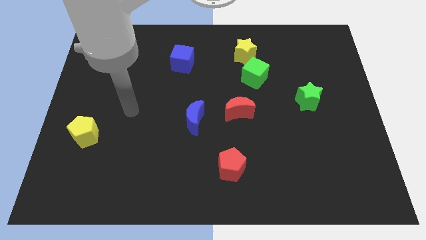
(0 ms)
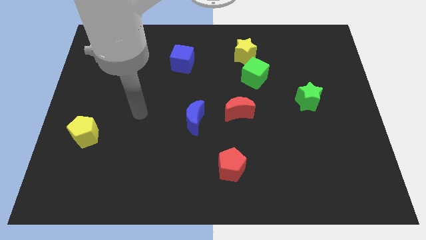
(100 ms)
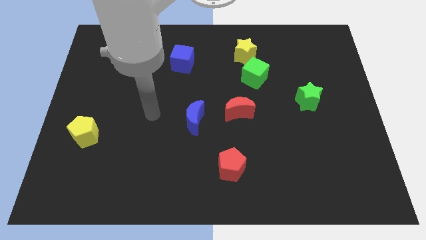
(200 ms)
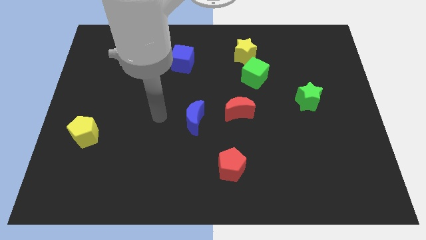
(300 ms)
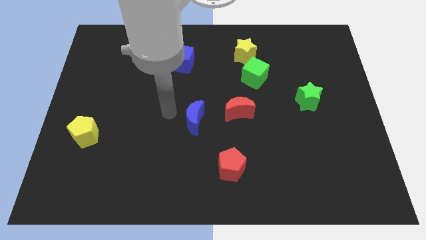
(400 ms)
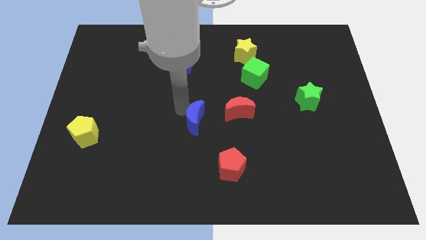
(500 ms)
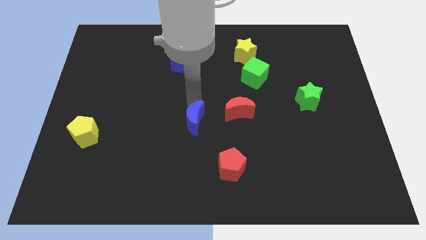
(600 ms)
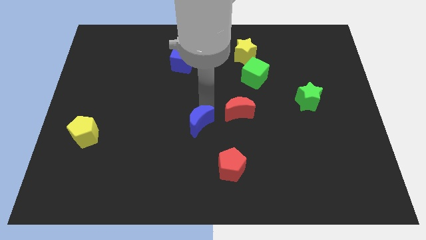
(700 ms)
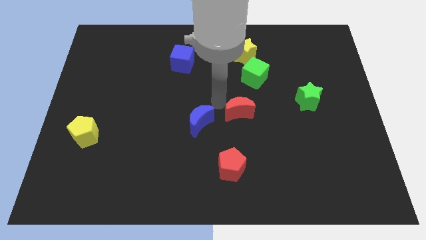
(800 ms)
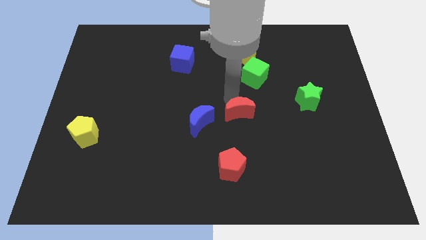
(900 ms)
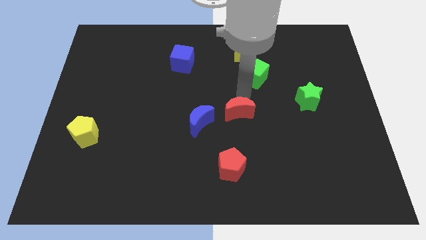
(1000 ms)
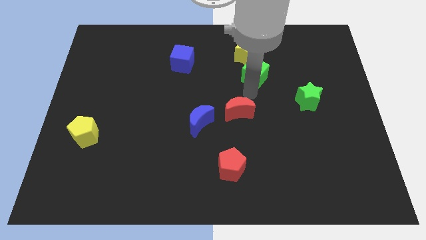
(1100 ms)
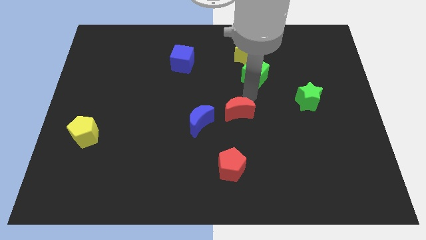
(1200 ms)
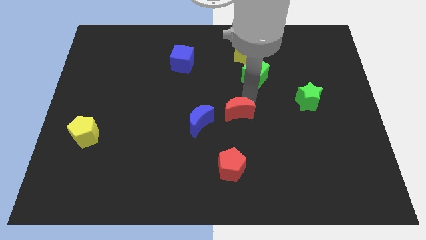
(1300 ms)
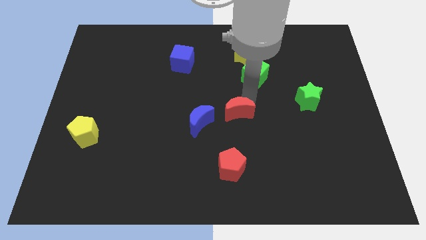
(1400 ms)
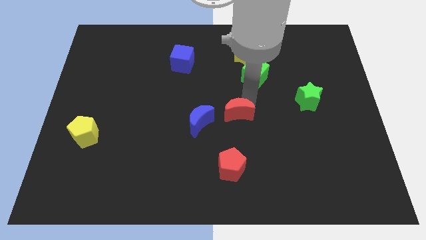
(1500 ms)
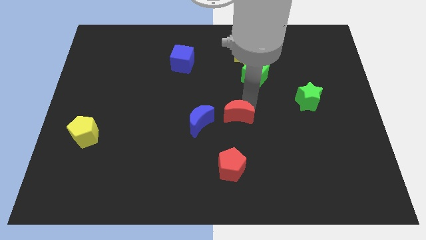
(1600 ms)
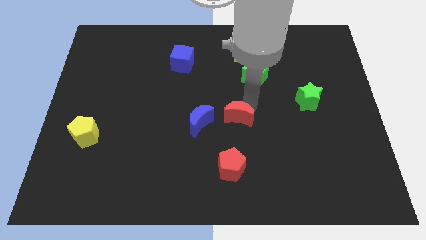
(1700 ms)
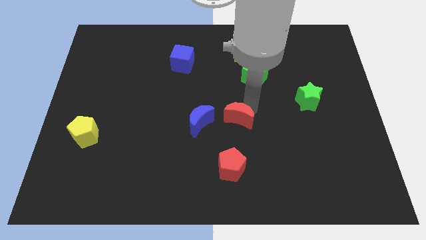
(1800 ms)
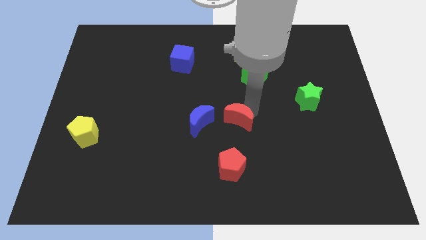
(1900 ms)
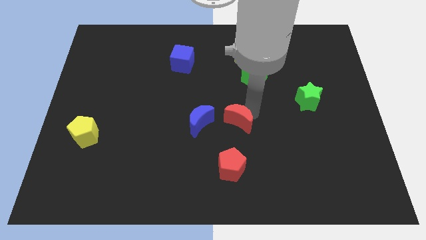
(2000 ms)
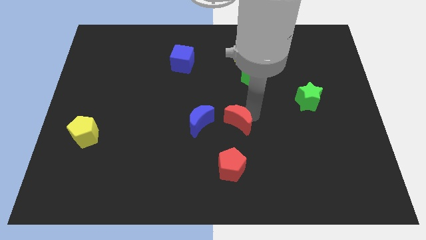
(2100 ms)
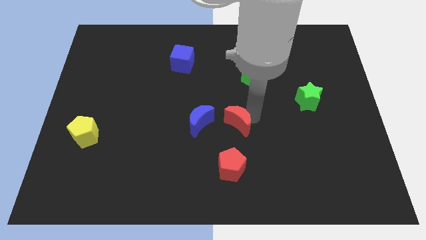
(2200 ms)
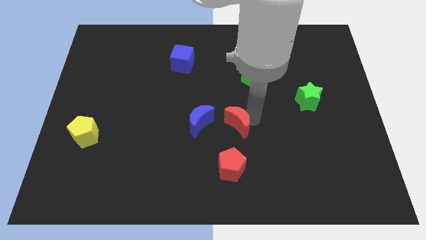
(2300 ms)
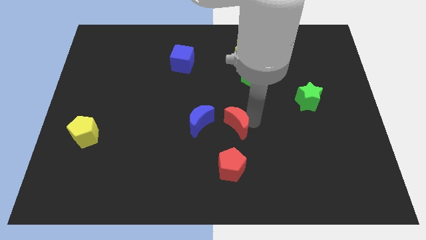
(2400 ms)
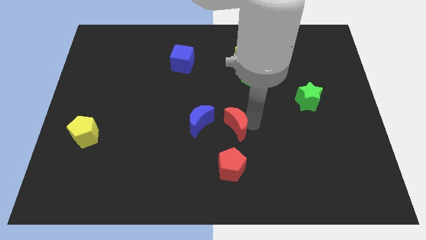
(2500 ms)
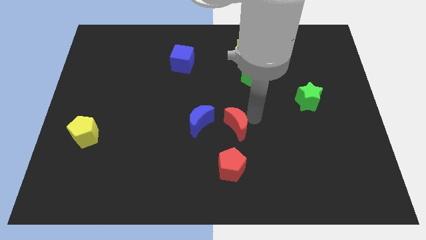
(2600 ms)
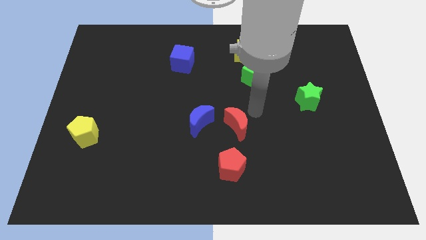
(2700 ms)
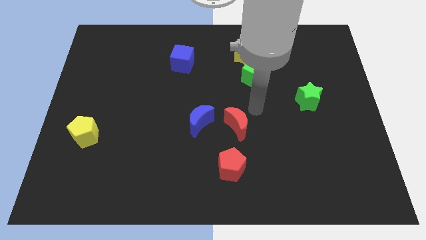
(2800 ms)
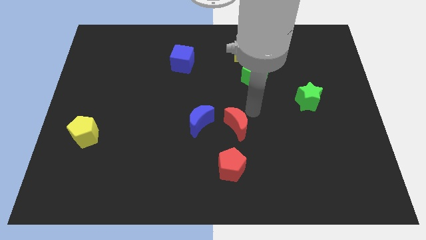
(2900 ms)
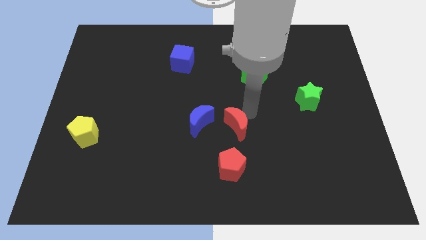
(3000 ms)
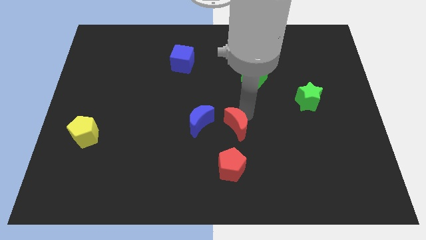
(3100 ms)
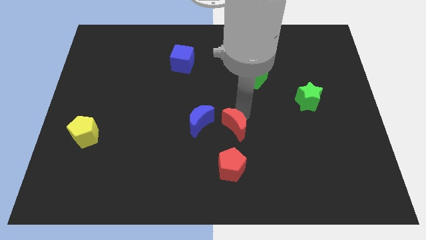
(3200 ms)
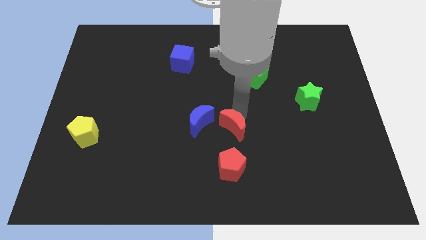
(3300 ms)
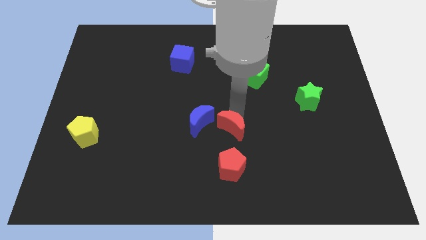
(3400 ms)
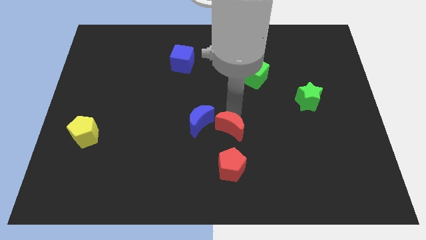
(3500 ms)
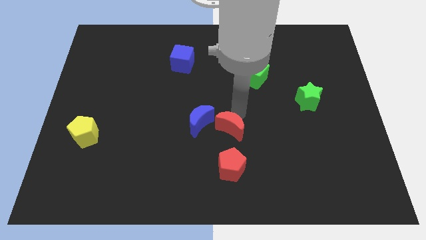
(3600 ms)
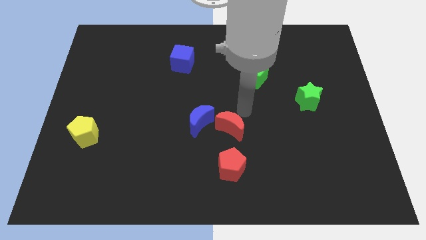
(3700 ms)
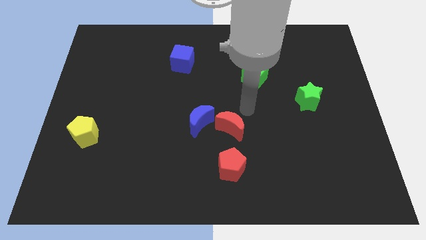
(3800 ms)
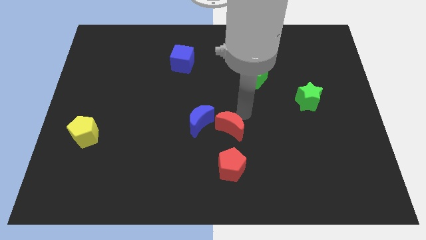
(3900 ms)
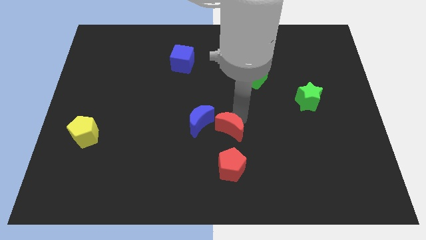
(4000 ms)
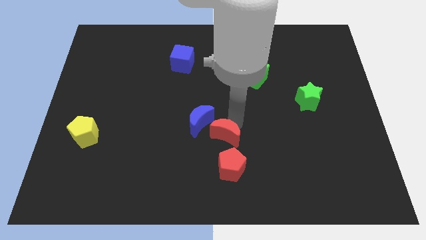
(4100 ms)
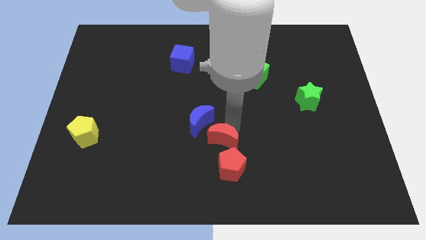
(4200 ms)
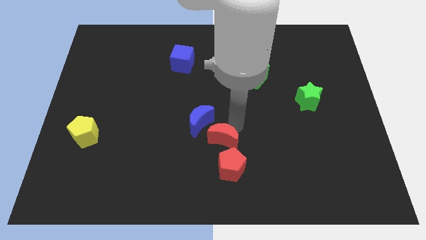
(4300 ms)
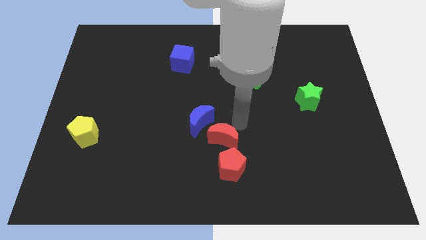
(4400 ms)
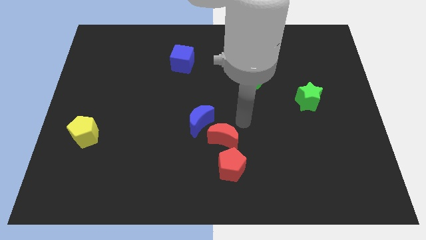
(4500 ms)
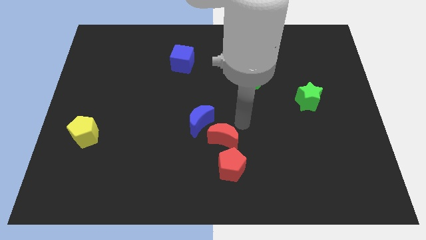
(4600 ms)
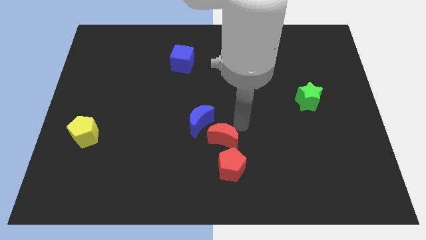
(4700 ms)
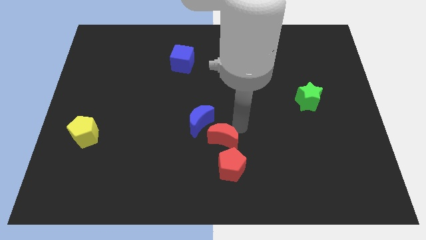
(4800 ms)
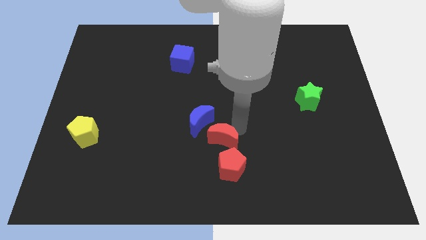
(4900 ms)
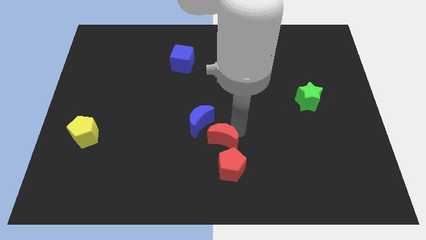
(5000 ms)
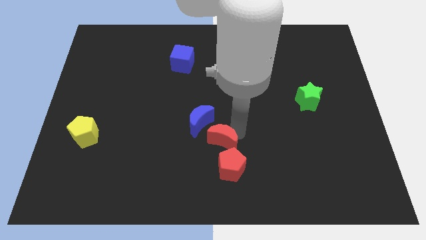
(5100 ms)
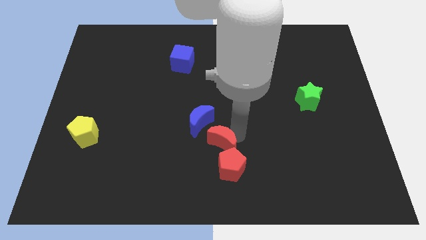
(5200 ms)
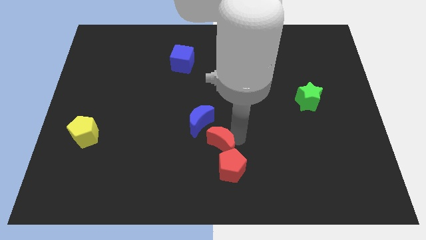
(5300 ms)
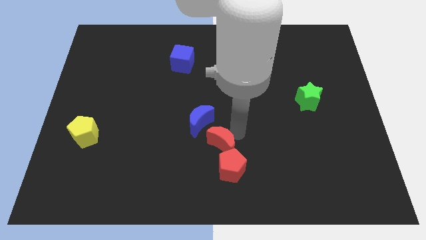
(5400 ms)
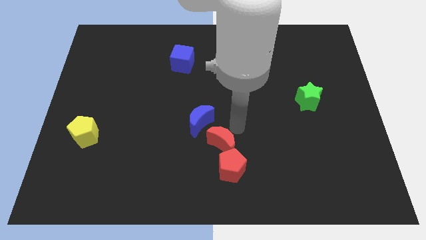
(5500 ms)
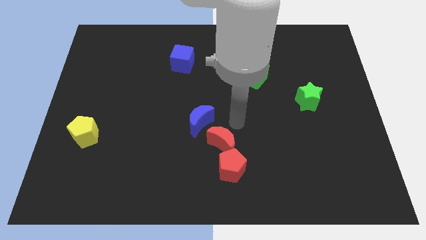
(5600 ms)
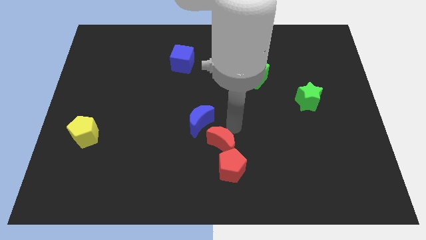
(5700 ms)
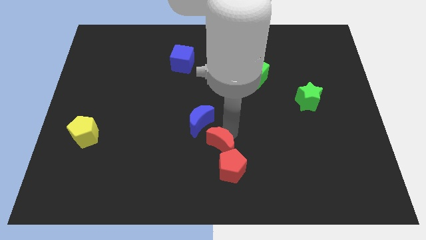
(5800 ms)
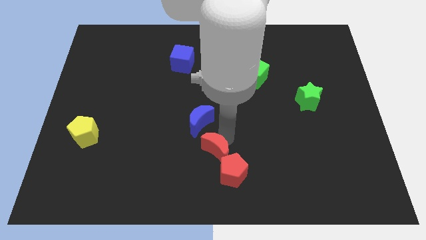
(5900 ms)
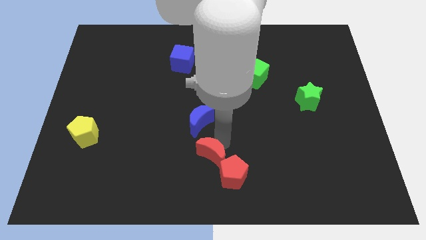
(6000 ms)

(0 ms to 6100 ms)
push the red moon to the bottom

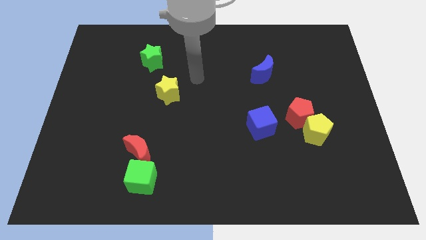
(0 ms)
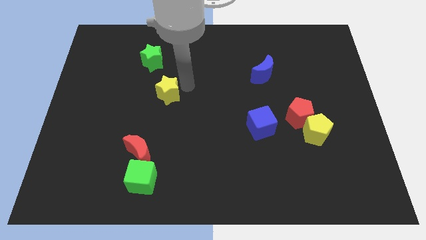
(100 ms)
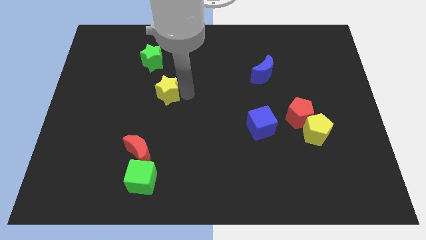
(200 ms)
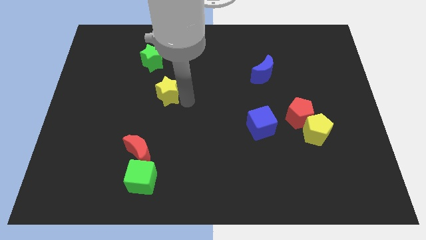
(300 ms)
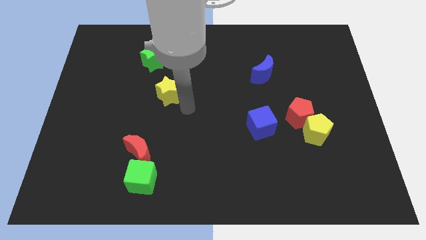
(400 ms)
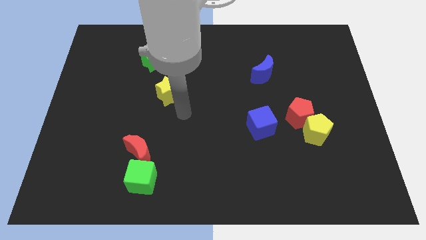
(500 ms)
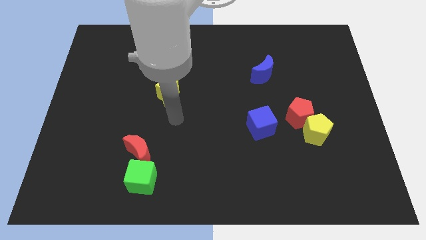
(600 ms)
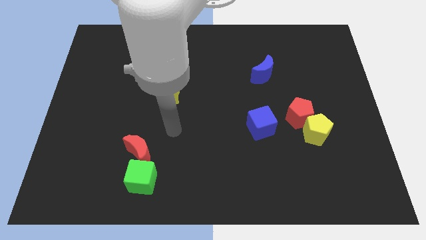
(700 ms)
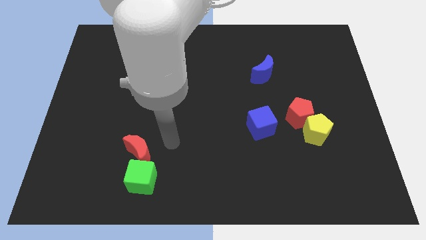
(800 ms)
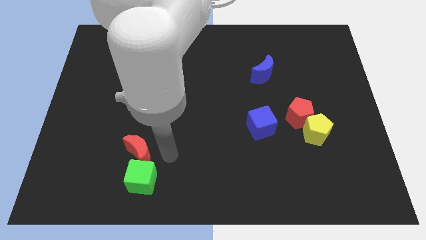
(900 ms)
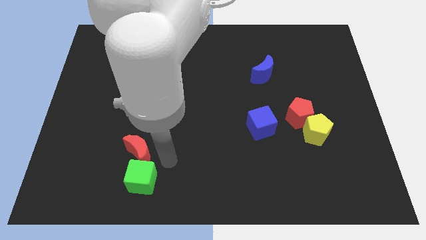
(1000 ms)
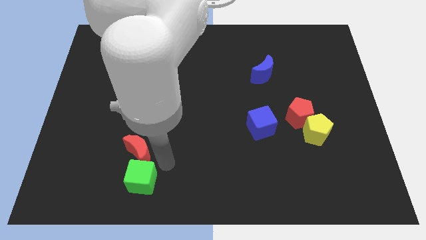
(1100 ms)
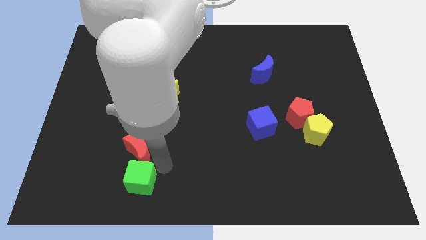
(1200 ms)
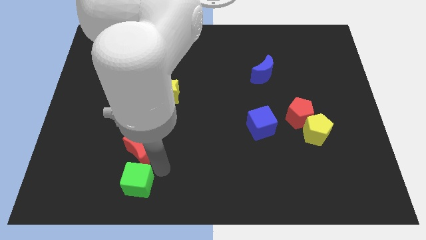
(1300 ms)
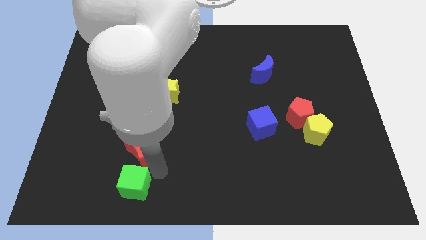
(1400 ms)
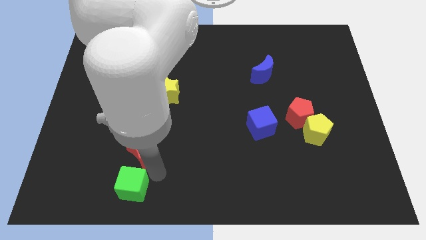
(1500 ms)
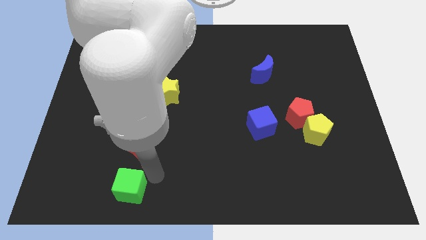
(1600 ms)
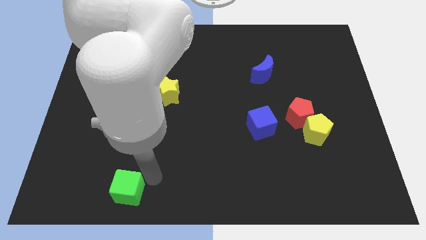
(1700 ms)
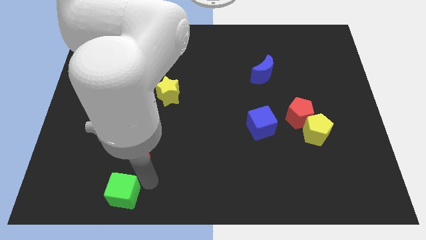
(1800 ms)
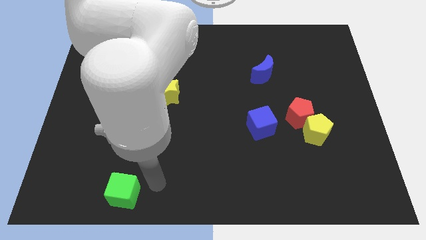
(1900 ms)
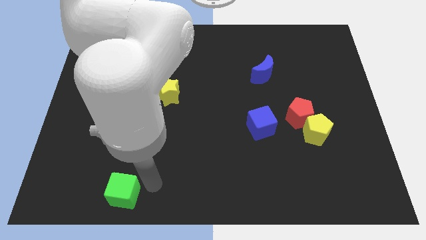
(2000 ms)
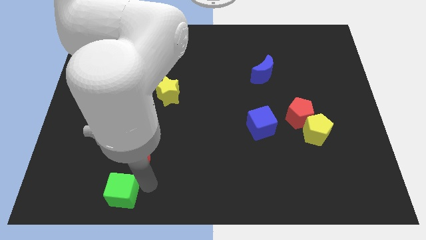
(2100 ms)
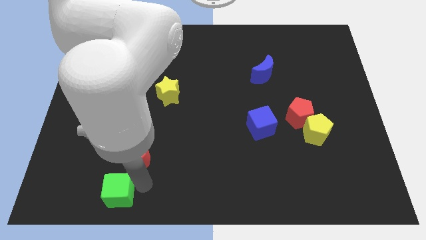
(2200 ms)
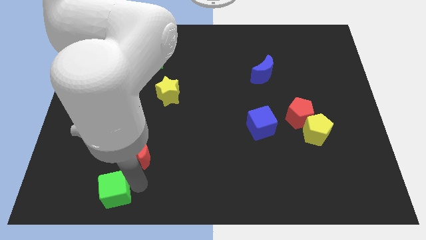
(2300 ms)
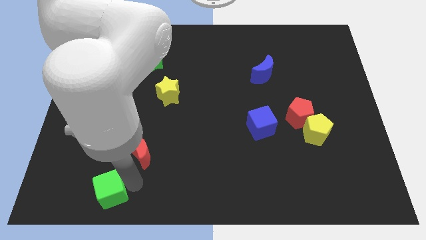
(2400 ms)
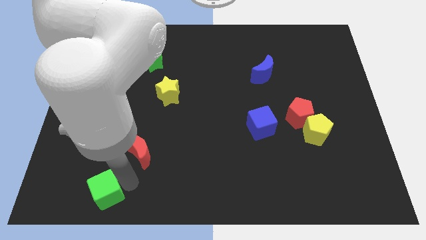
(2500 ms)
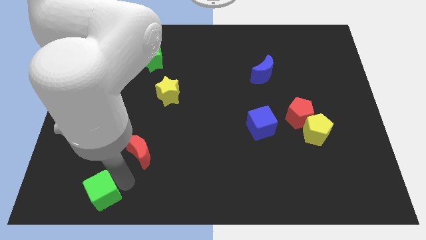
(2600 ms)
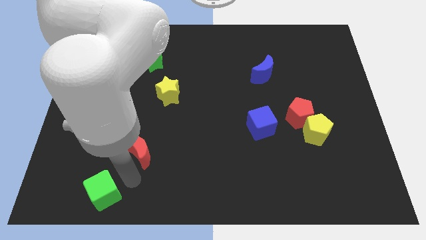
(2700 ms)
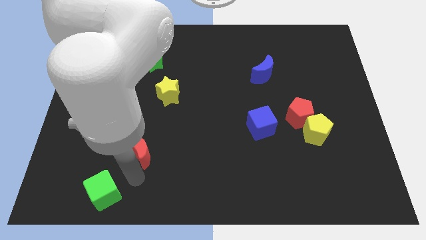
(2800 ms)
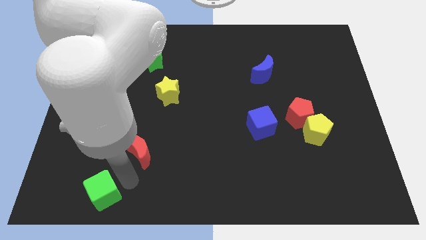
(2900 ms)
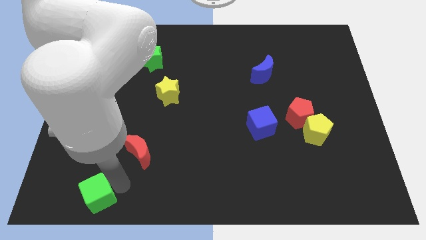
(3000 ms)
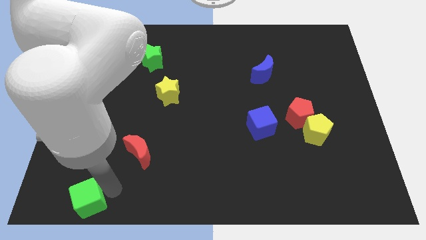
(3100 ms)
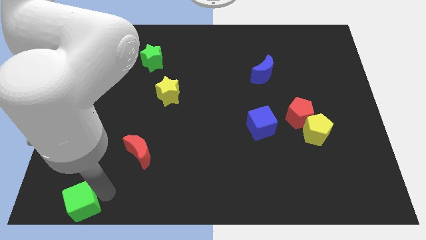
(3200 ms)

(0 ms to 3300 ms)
move the green cube to the lower left corner
